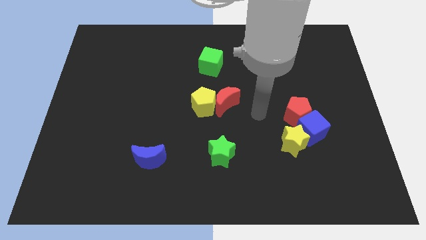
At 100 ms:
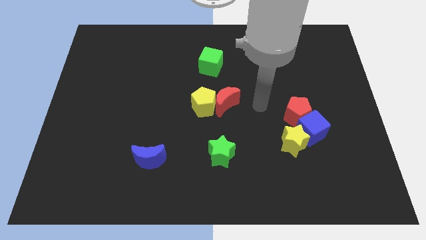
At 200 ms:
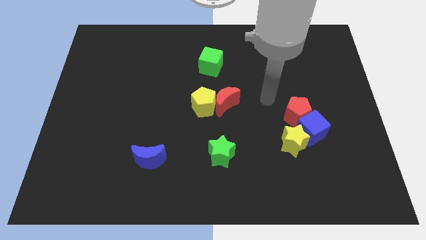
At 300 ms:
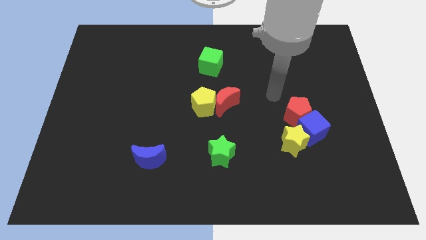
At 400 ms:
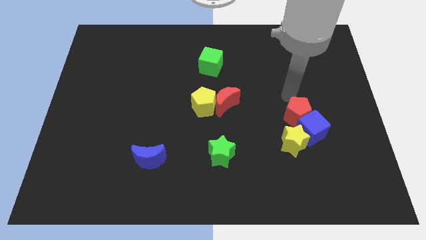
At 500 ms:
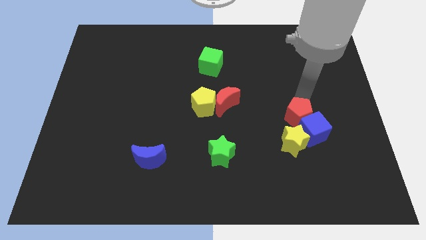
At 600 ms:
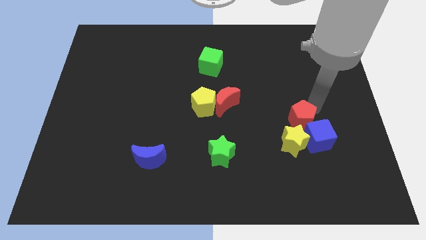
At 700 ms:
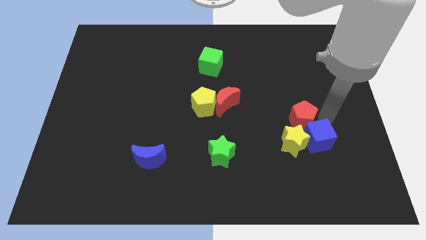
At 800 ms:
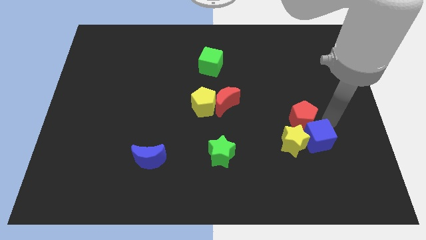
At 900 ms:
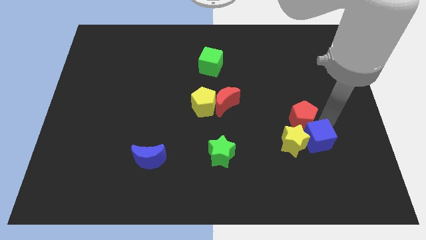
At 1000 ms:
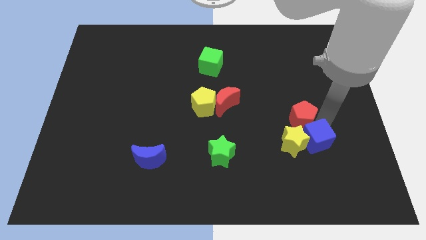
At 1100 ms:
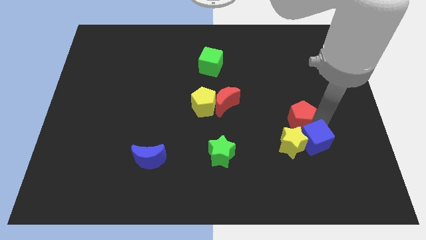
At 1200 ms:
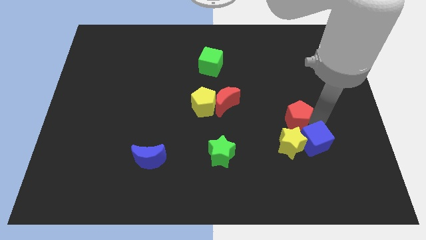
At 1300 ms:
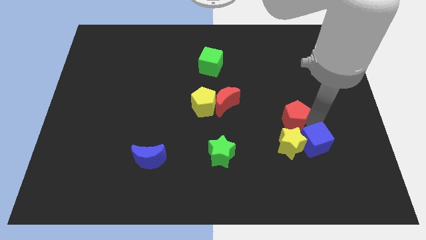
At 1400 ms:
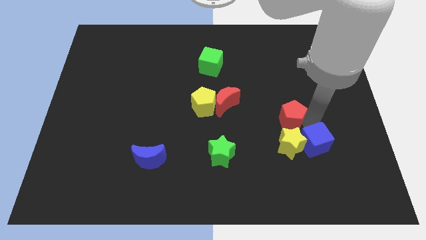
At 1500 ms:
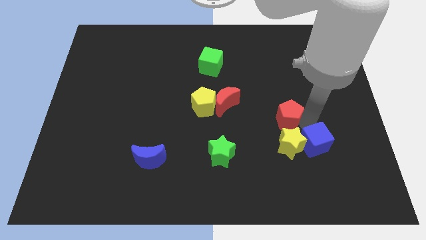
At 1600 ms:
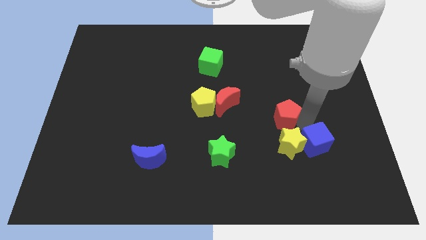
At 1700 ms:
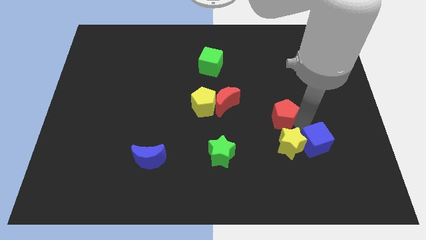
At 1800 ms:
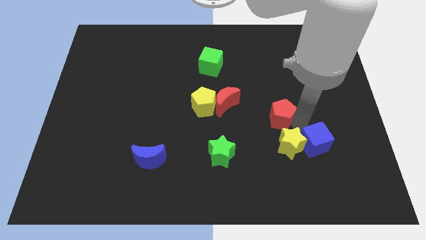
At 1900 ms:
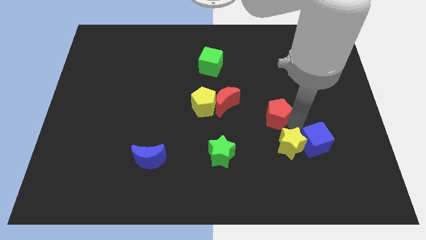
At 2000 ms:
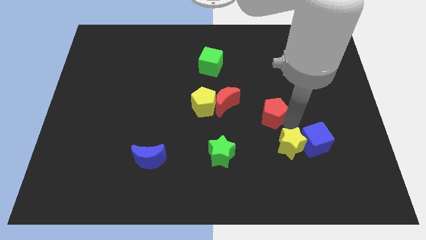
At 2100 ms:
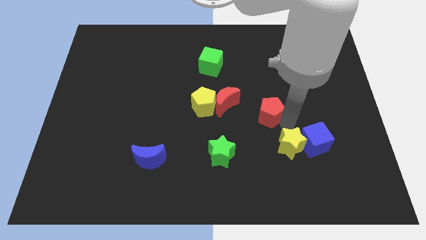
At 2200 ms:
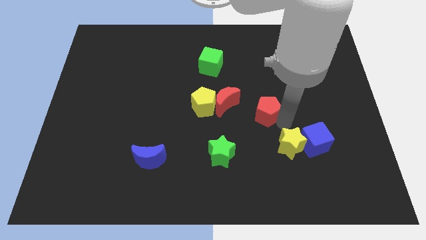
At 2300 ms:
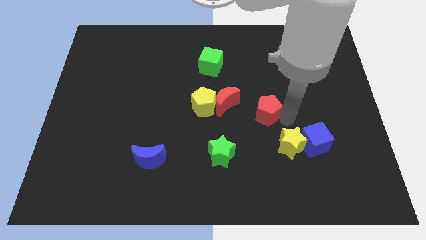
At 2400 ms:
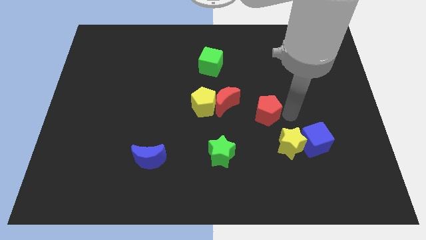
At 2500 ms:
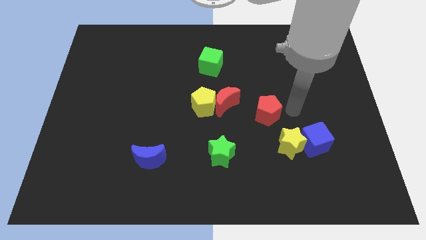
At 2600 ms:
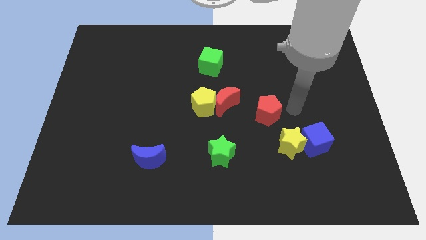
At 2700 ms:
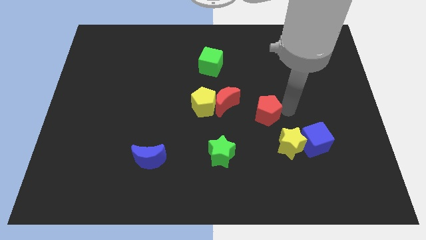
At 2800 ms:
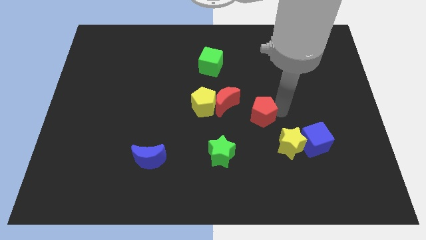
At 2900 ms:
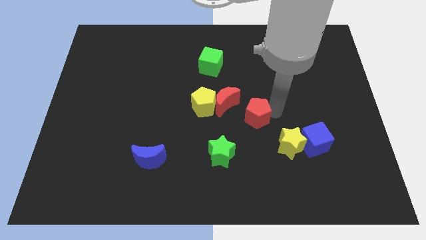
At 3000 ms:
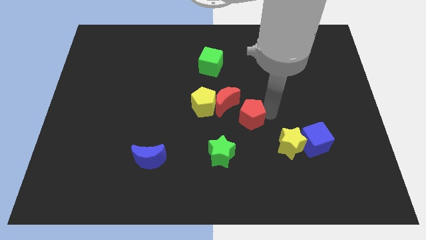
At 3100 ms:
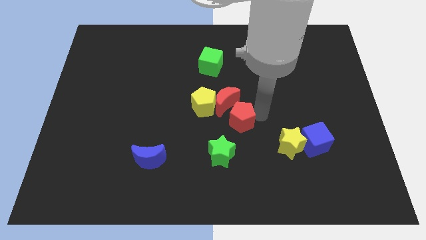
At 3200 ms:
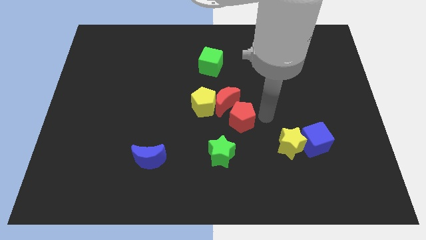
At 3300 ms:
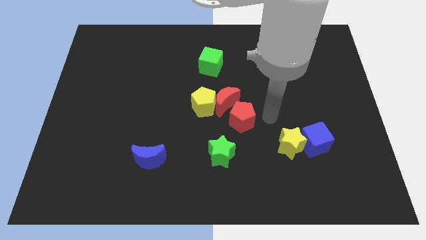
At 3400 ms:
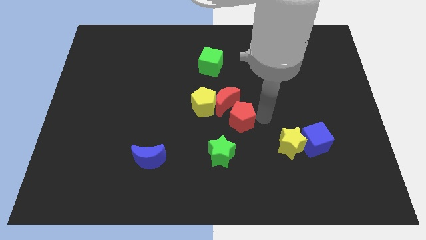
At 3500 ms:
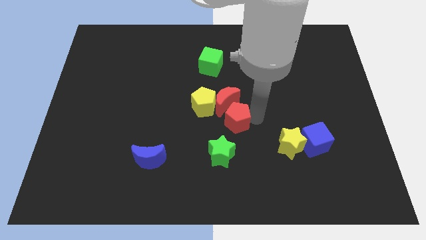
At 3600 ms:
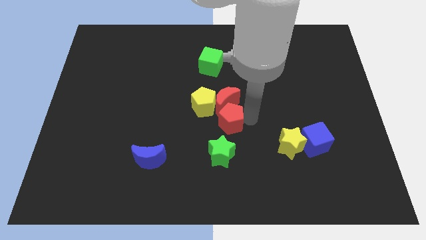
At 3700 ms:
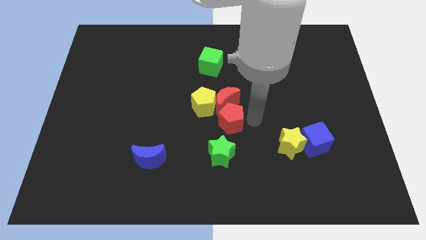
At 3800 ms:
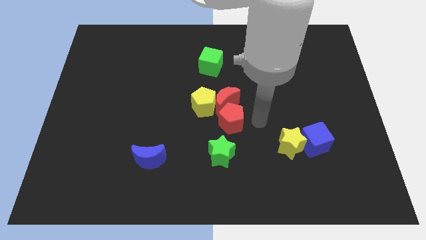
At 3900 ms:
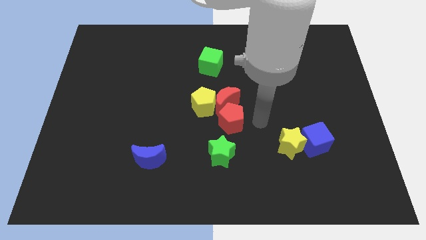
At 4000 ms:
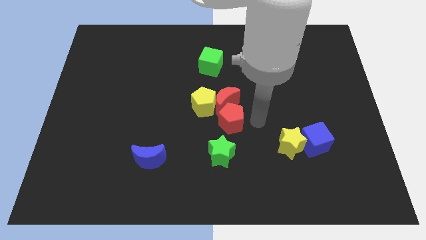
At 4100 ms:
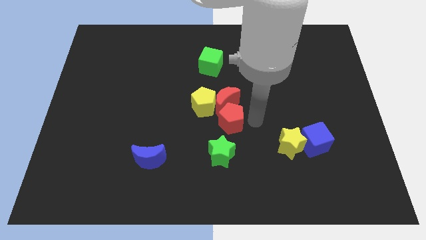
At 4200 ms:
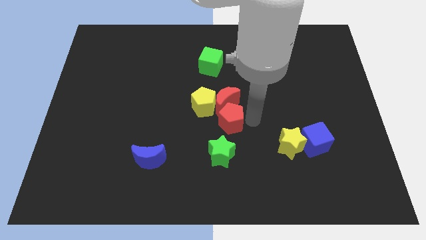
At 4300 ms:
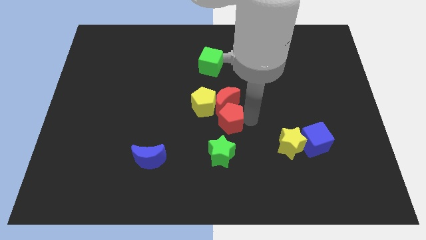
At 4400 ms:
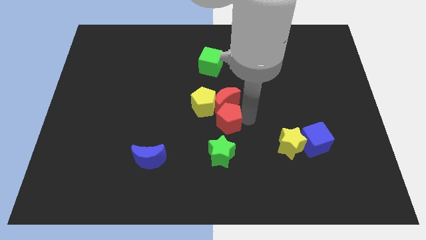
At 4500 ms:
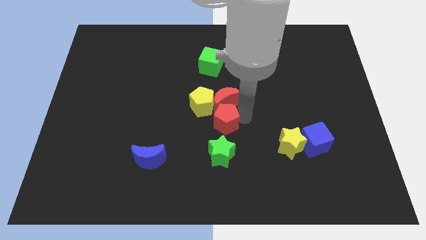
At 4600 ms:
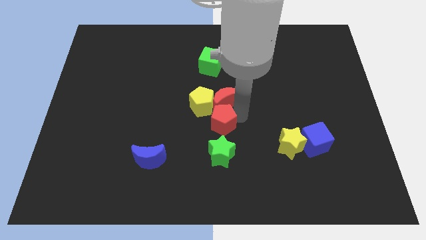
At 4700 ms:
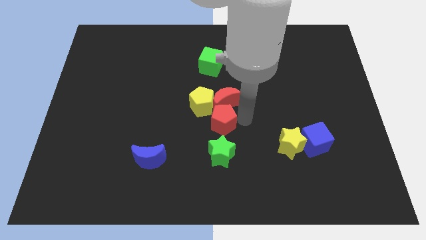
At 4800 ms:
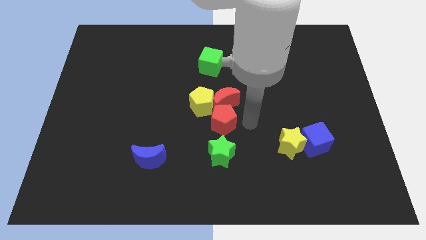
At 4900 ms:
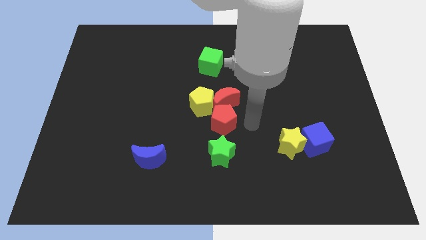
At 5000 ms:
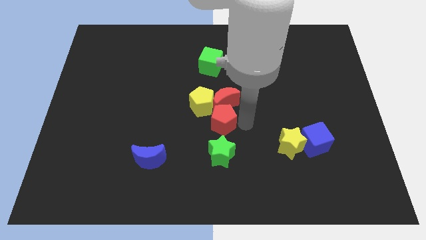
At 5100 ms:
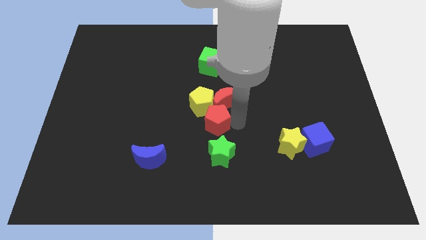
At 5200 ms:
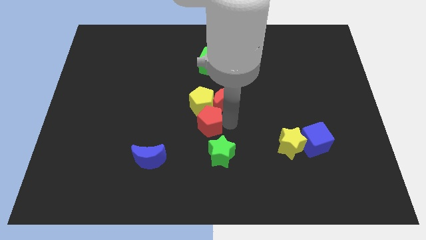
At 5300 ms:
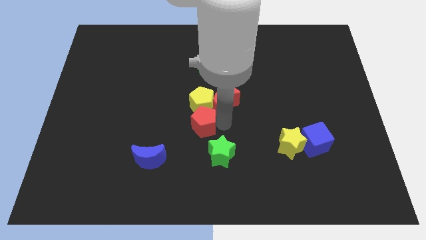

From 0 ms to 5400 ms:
push the red pentagon left

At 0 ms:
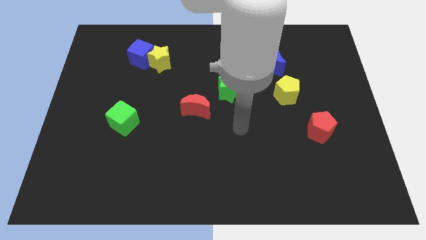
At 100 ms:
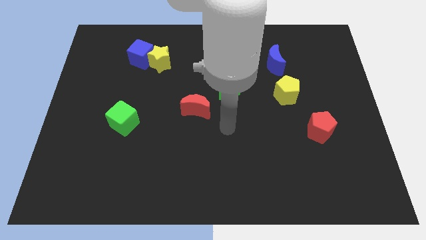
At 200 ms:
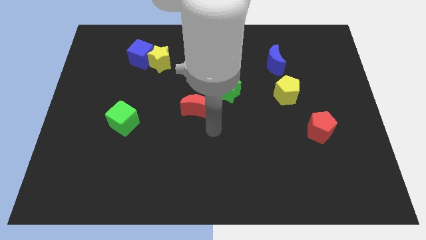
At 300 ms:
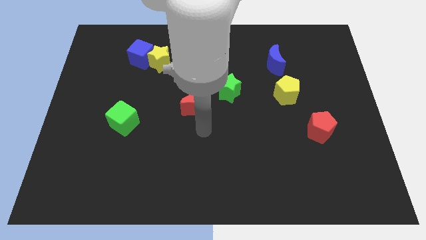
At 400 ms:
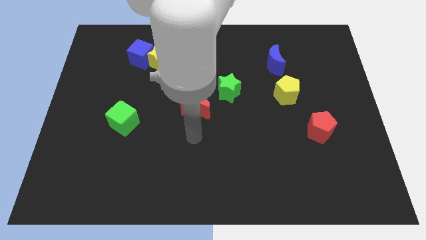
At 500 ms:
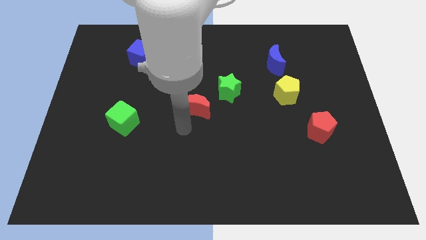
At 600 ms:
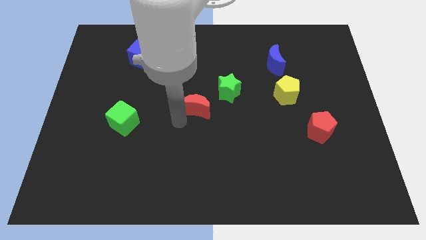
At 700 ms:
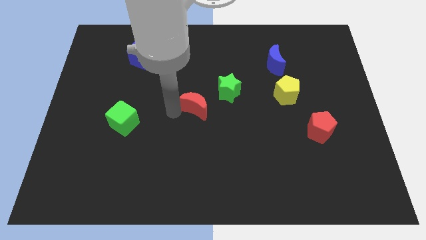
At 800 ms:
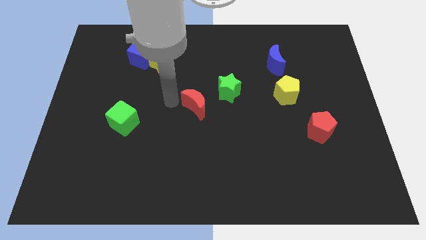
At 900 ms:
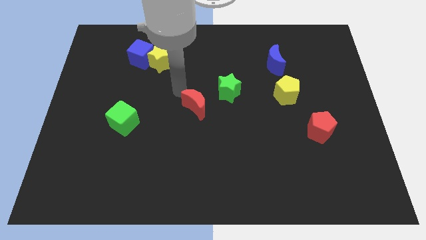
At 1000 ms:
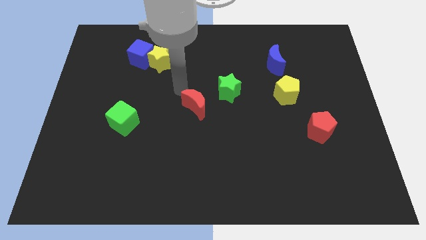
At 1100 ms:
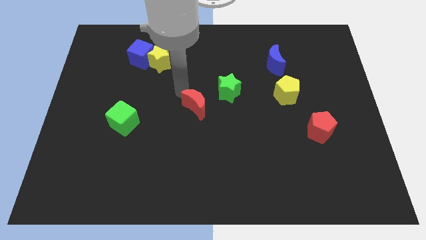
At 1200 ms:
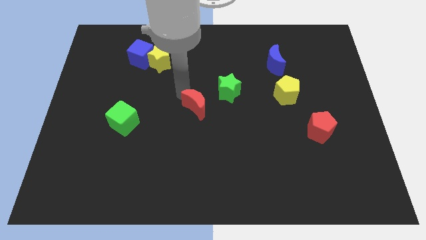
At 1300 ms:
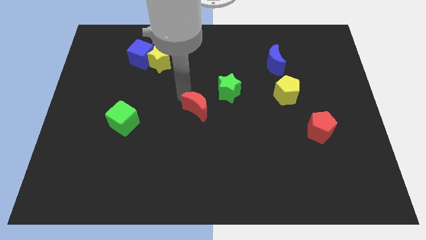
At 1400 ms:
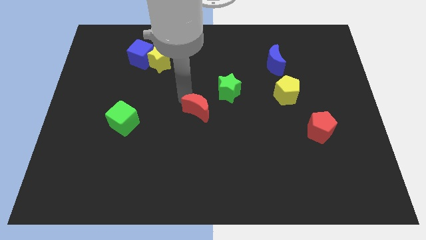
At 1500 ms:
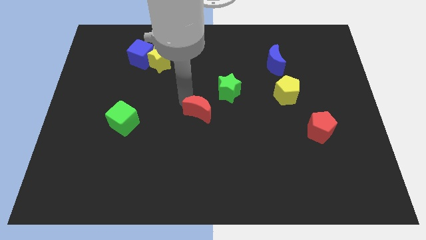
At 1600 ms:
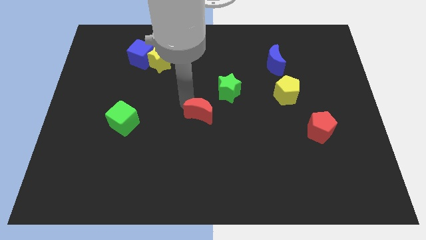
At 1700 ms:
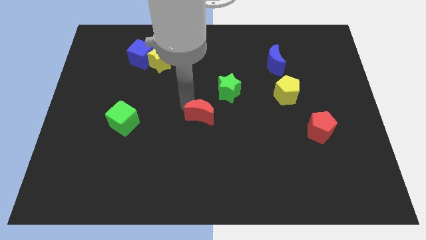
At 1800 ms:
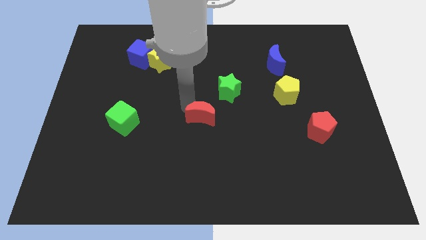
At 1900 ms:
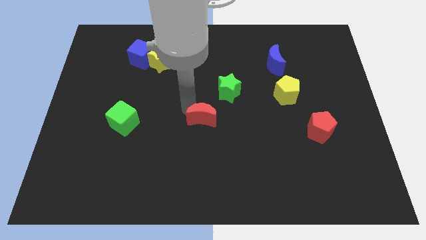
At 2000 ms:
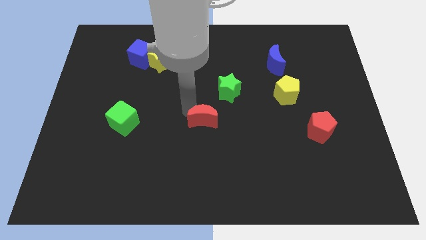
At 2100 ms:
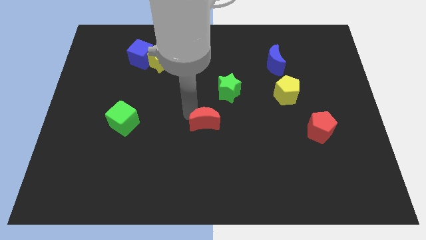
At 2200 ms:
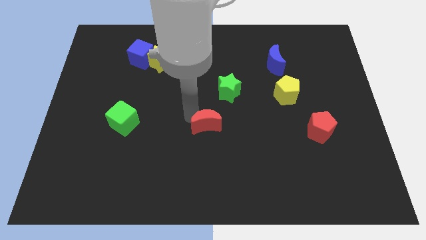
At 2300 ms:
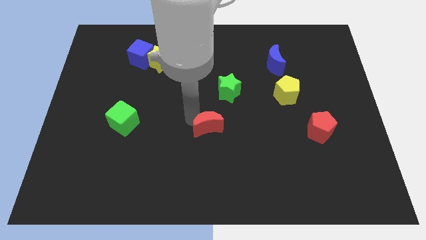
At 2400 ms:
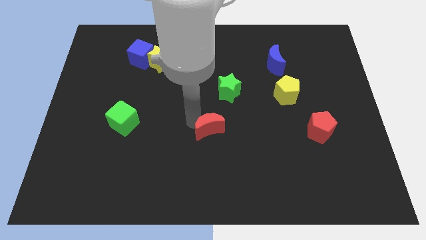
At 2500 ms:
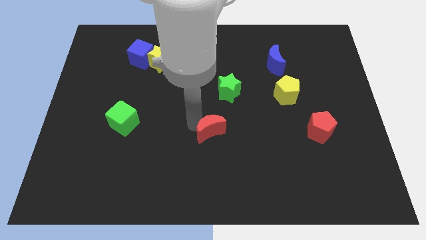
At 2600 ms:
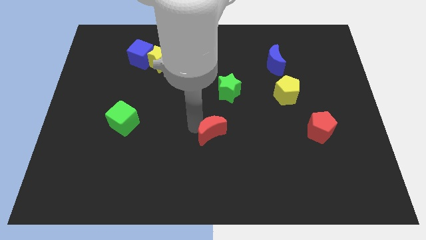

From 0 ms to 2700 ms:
move the red moon diagonally downwards and to the right a little

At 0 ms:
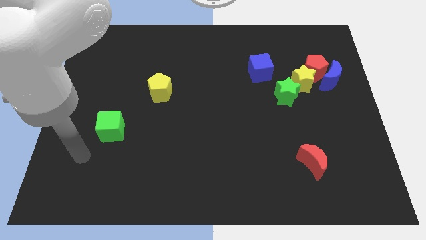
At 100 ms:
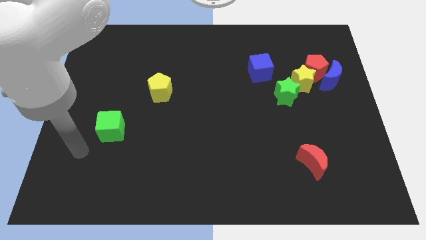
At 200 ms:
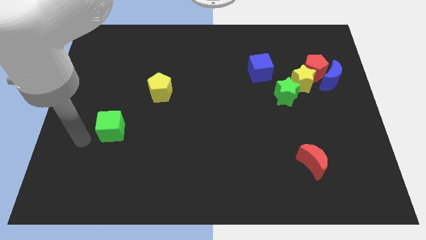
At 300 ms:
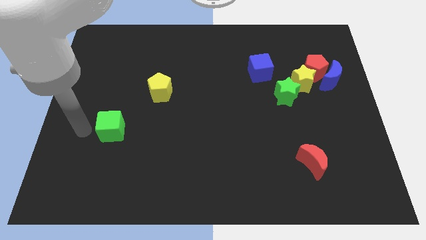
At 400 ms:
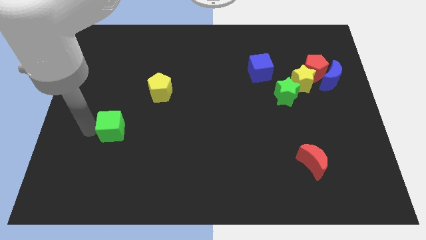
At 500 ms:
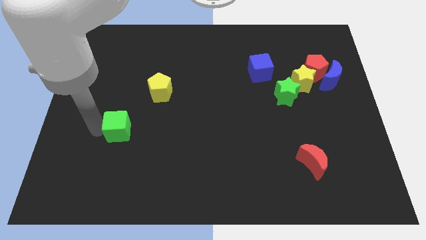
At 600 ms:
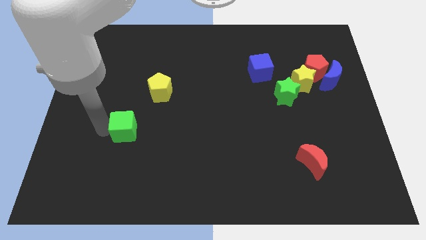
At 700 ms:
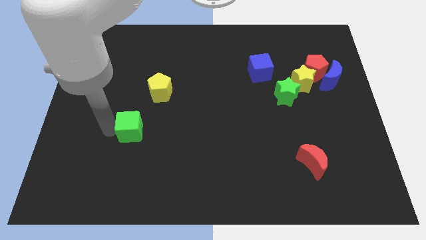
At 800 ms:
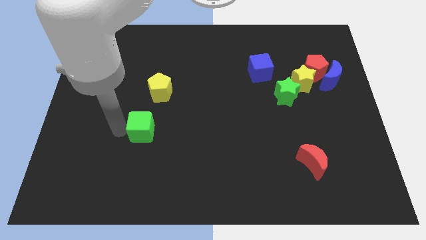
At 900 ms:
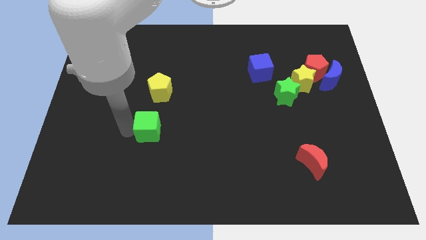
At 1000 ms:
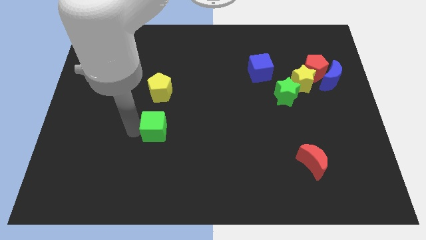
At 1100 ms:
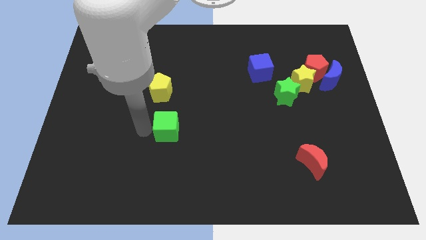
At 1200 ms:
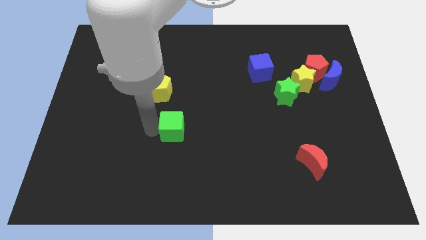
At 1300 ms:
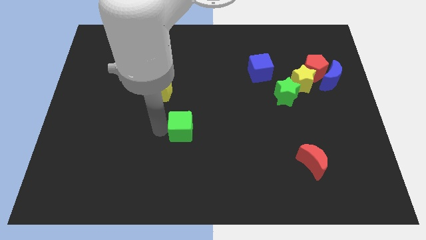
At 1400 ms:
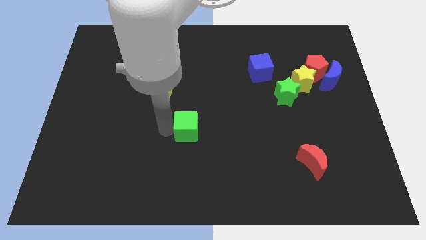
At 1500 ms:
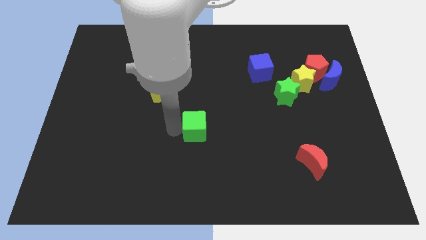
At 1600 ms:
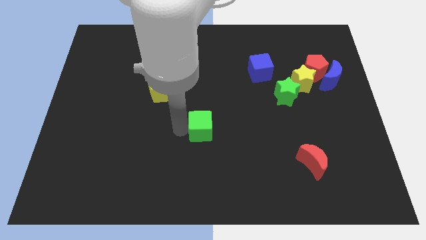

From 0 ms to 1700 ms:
move the green cube right
